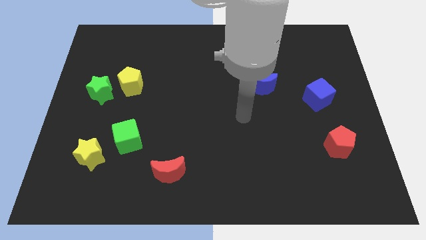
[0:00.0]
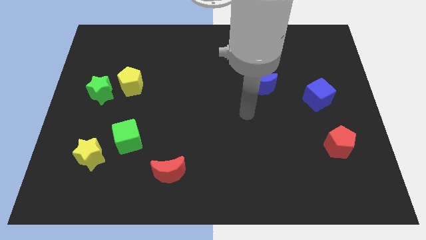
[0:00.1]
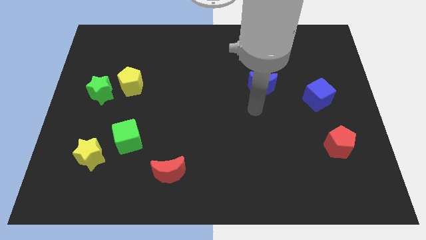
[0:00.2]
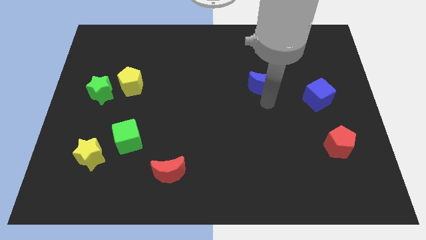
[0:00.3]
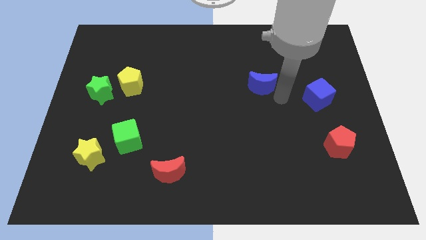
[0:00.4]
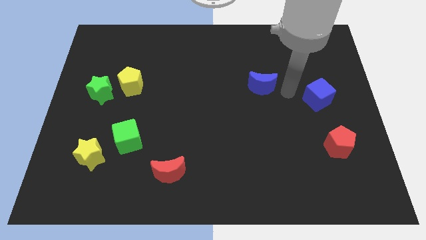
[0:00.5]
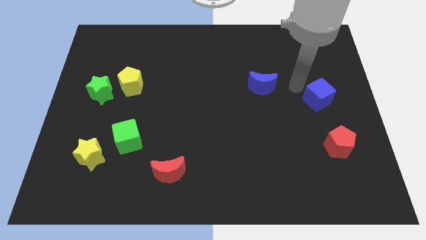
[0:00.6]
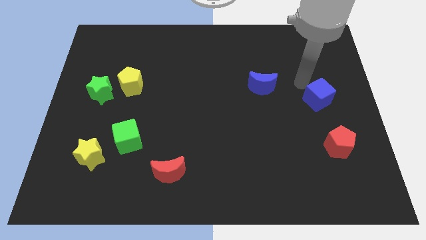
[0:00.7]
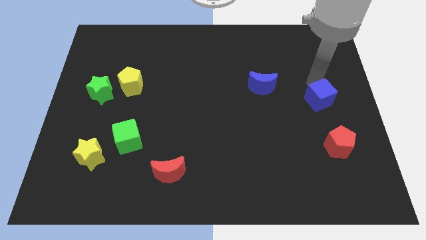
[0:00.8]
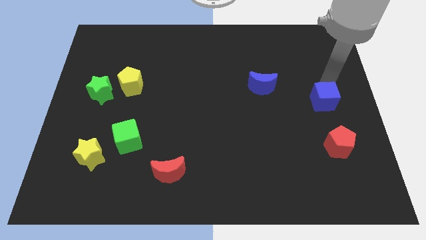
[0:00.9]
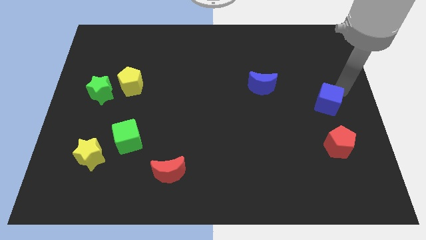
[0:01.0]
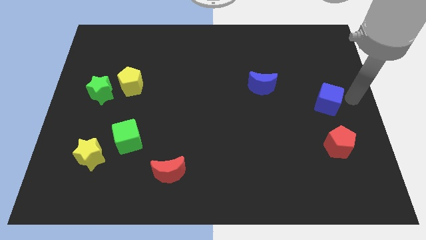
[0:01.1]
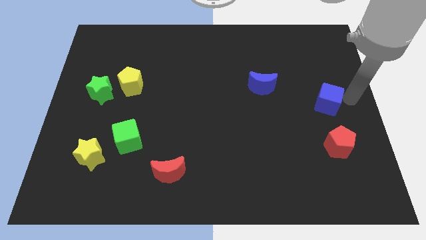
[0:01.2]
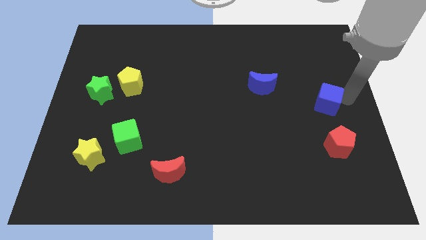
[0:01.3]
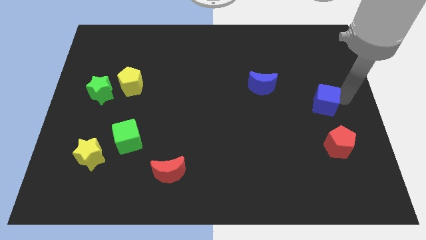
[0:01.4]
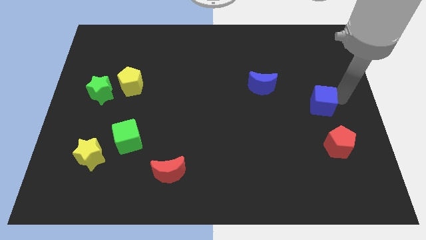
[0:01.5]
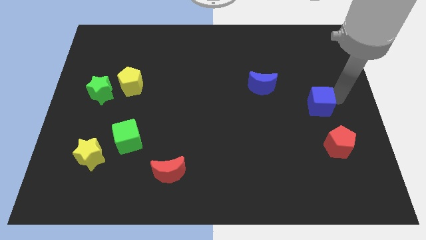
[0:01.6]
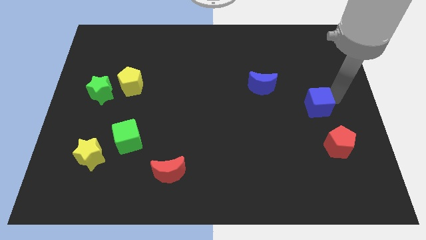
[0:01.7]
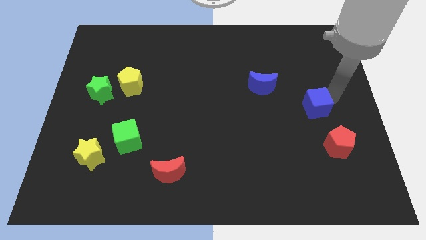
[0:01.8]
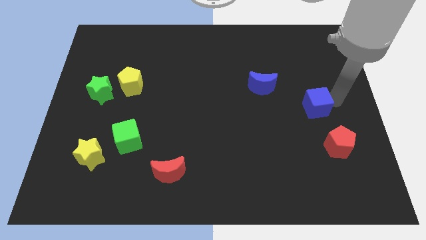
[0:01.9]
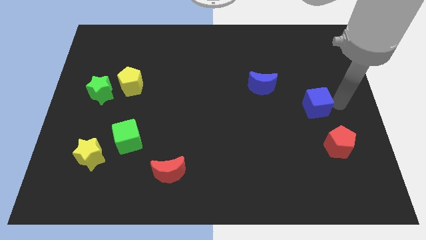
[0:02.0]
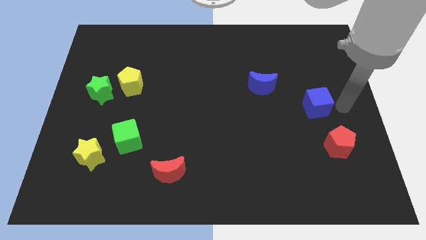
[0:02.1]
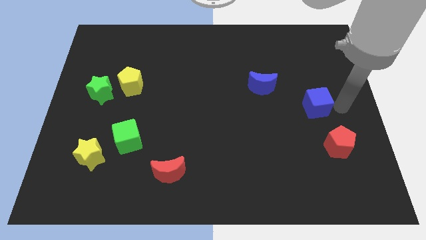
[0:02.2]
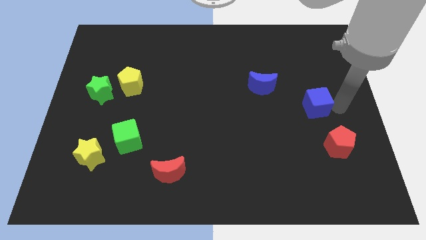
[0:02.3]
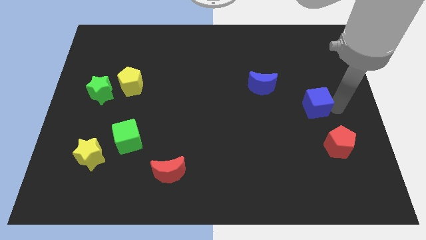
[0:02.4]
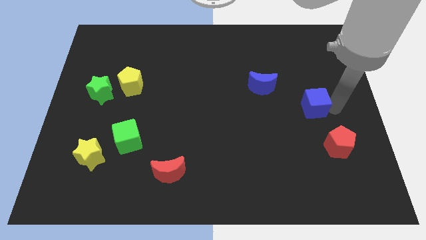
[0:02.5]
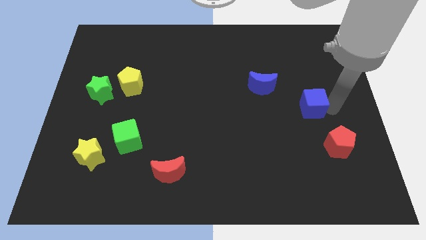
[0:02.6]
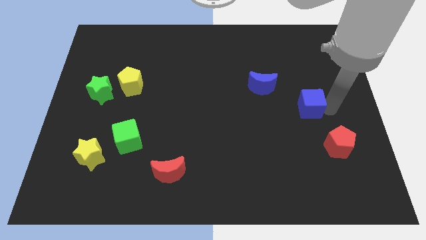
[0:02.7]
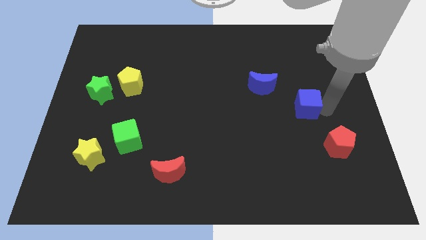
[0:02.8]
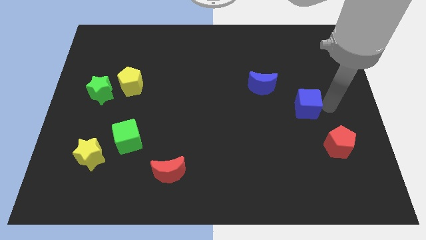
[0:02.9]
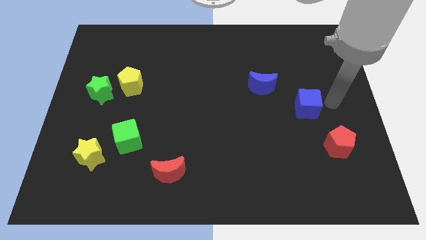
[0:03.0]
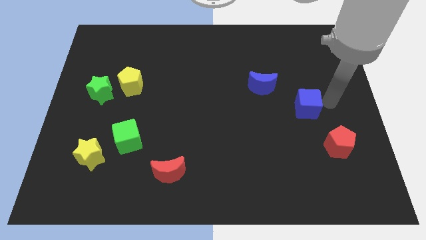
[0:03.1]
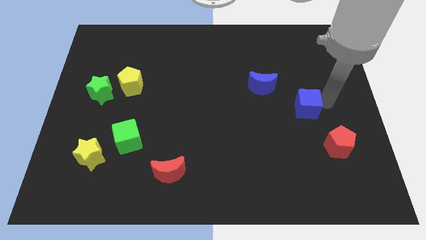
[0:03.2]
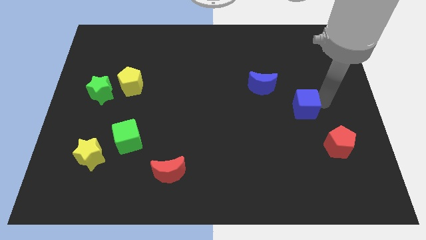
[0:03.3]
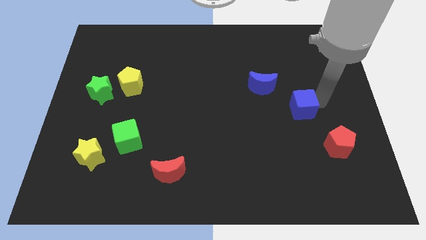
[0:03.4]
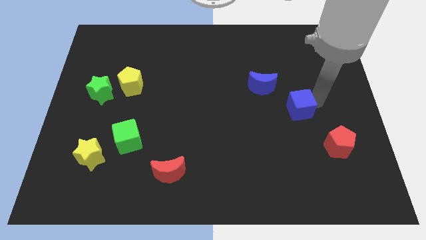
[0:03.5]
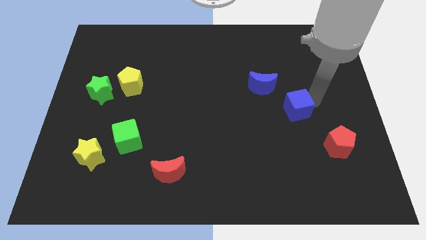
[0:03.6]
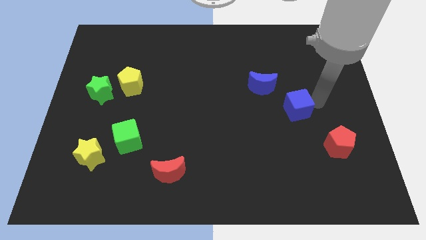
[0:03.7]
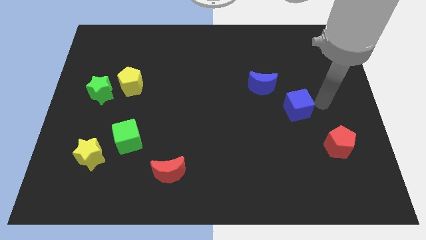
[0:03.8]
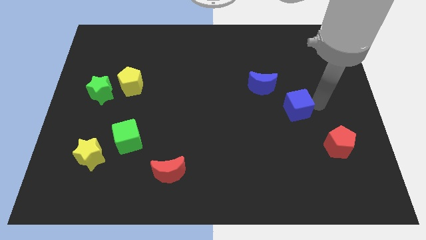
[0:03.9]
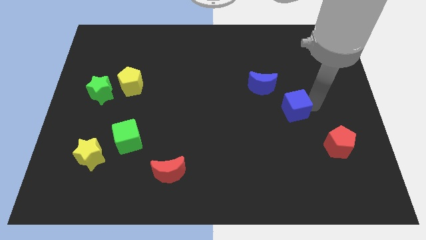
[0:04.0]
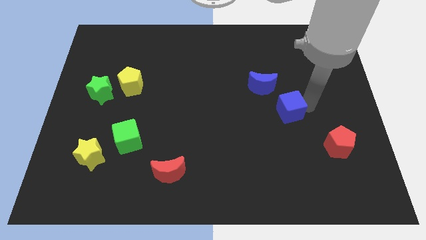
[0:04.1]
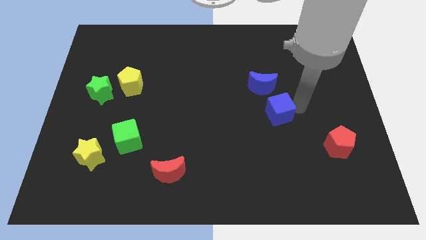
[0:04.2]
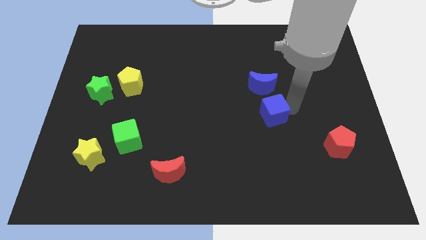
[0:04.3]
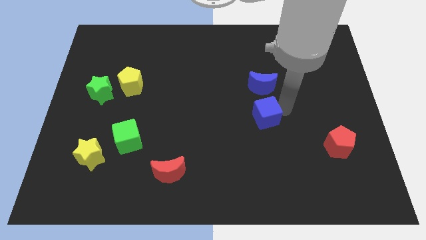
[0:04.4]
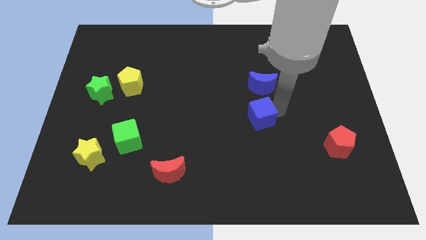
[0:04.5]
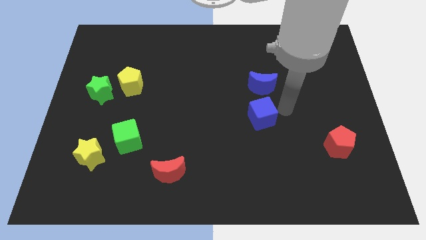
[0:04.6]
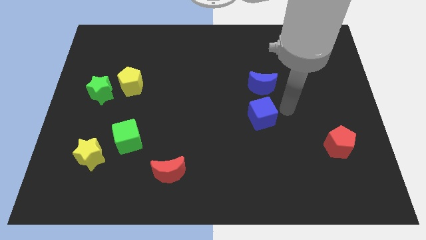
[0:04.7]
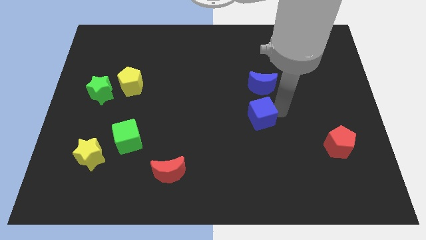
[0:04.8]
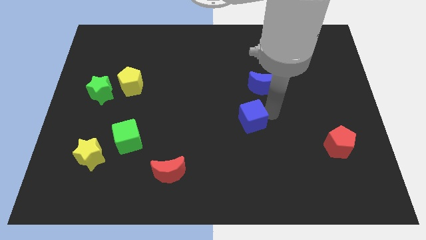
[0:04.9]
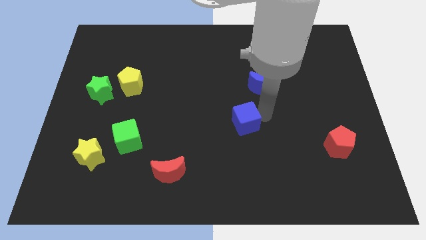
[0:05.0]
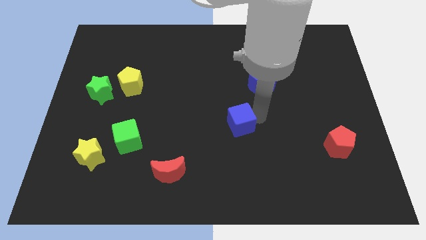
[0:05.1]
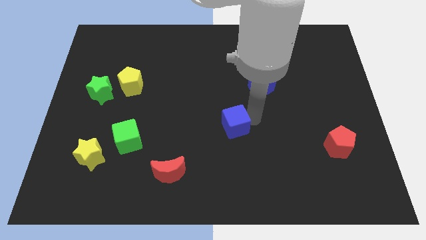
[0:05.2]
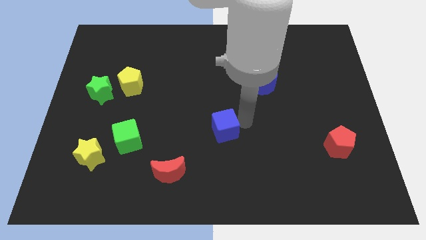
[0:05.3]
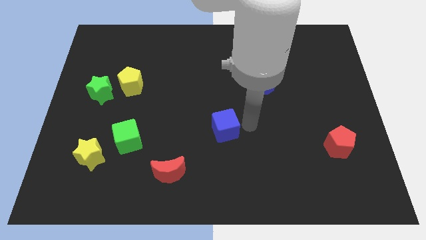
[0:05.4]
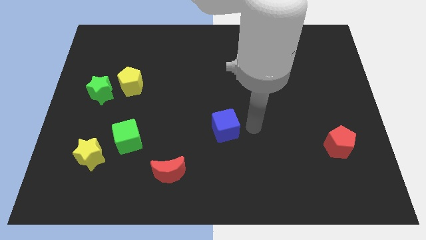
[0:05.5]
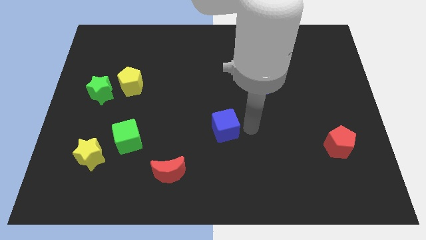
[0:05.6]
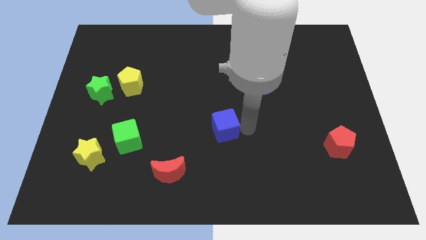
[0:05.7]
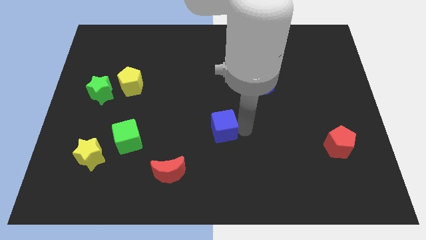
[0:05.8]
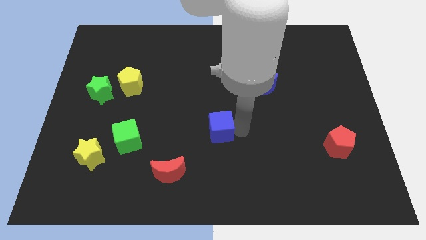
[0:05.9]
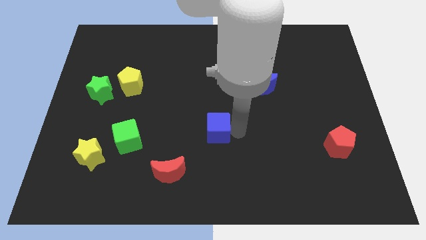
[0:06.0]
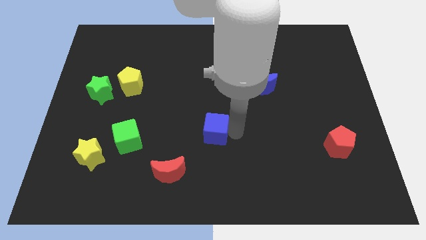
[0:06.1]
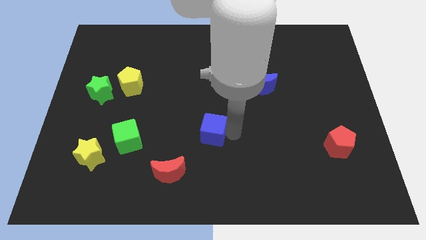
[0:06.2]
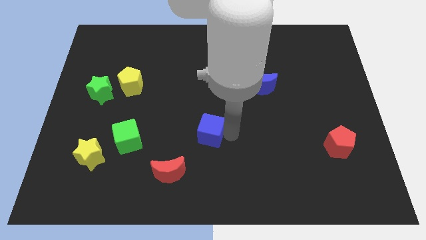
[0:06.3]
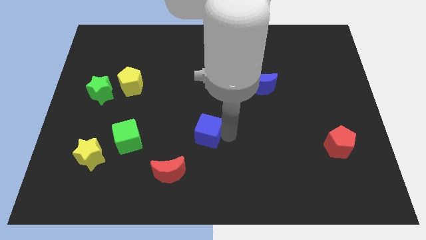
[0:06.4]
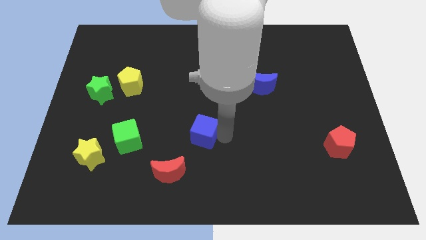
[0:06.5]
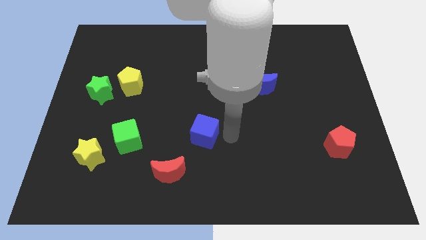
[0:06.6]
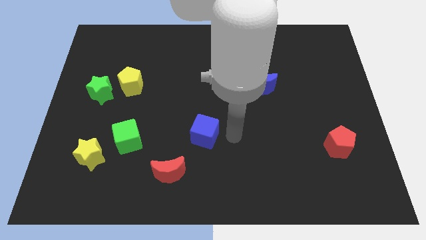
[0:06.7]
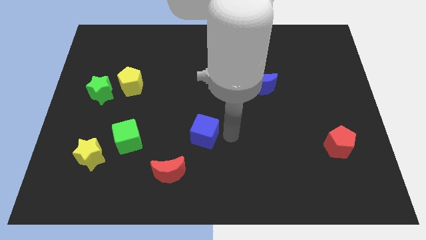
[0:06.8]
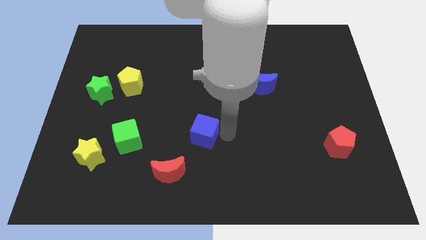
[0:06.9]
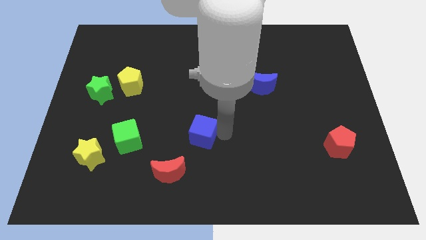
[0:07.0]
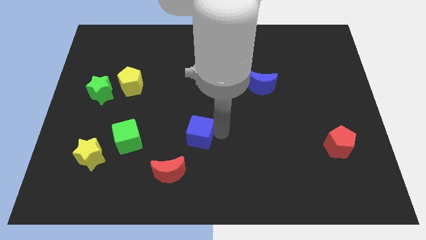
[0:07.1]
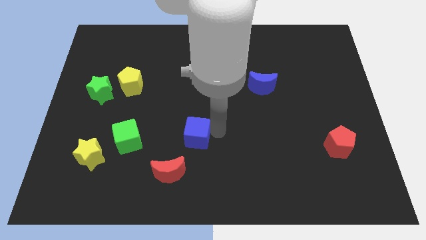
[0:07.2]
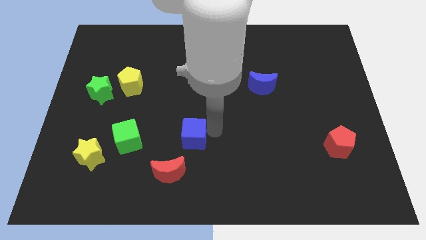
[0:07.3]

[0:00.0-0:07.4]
push the blue cube above the red moon
